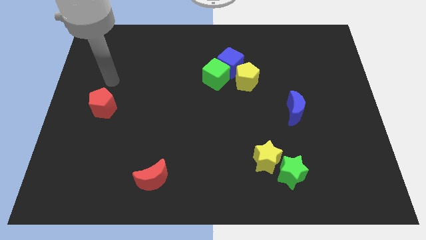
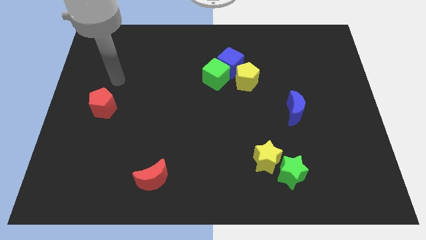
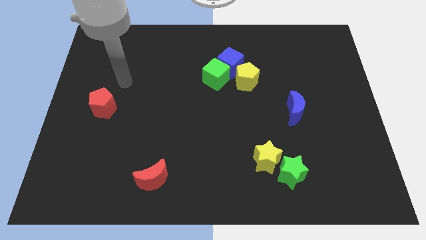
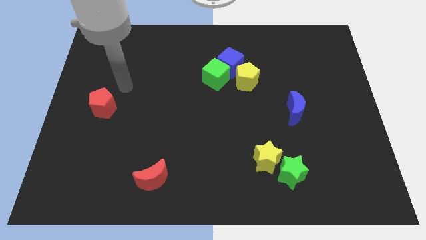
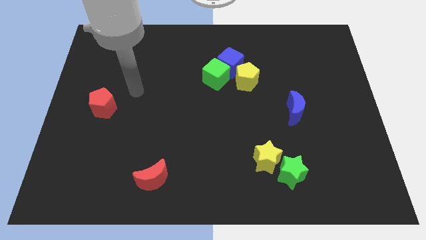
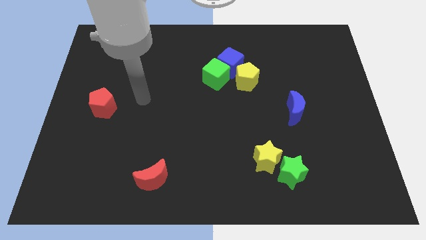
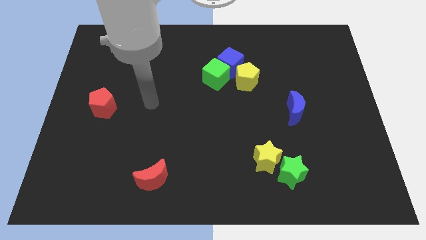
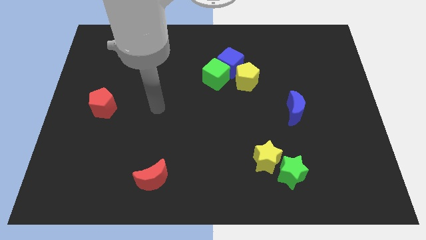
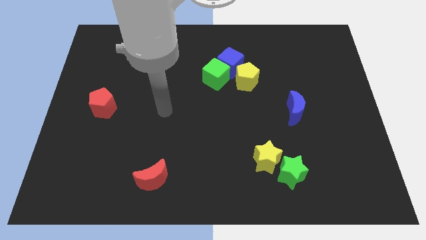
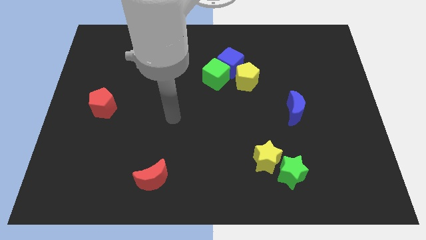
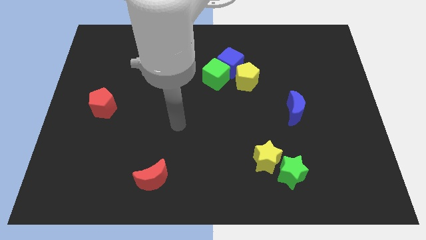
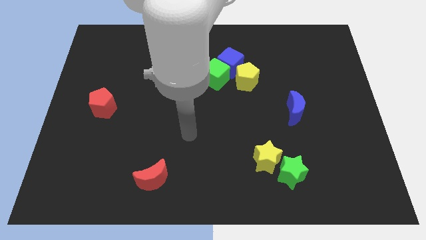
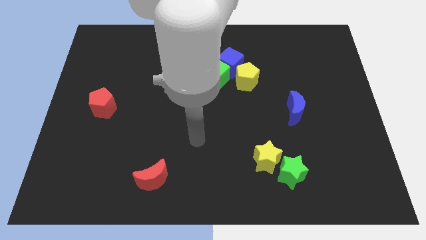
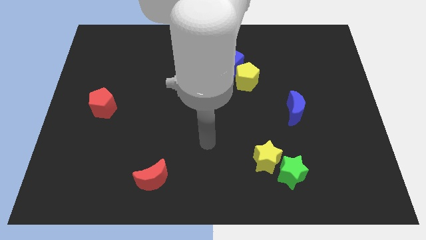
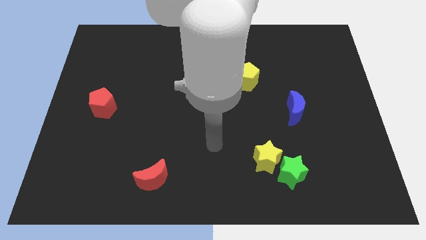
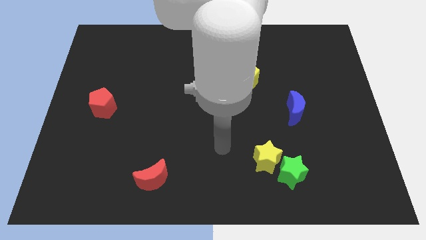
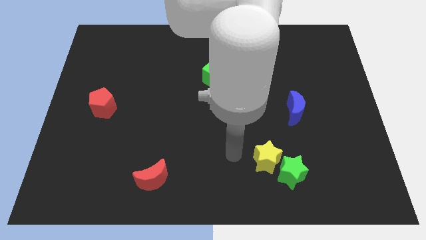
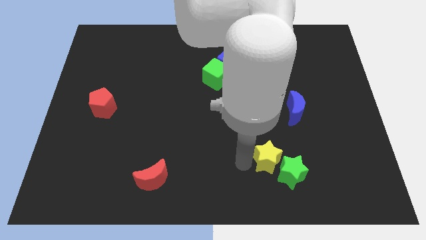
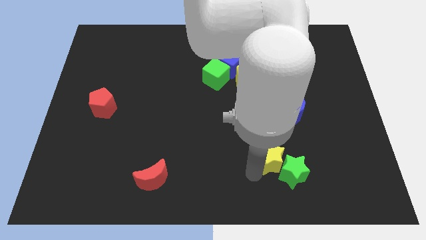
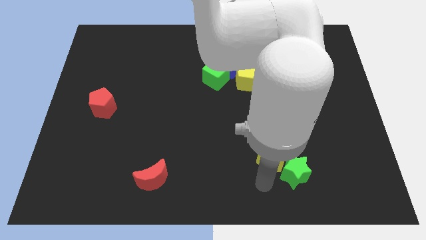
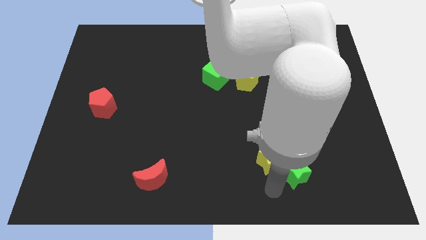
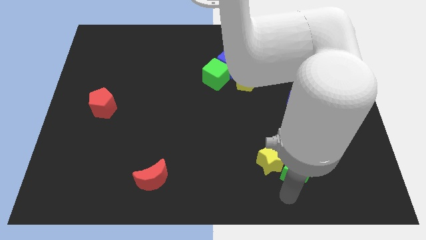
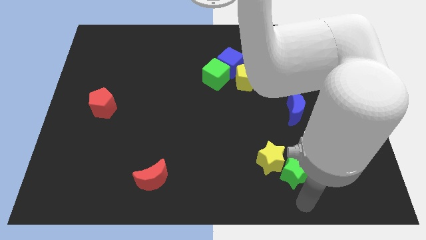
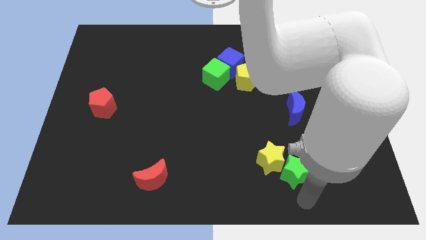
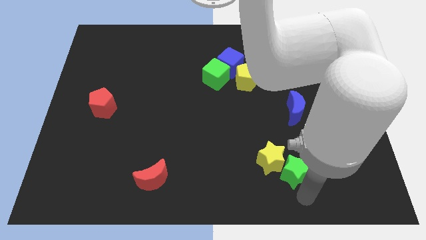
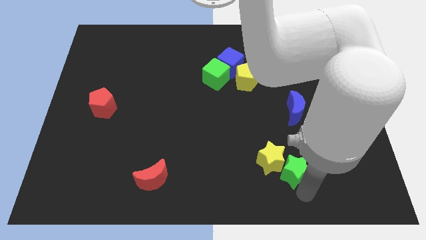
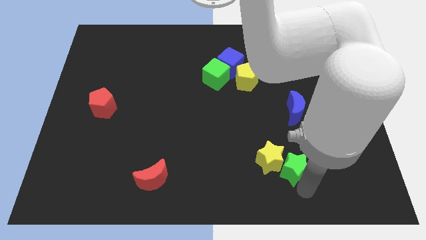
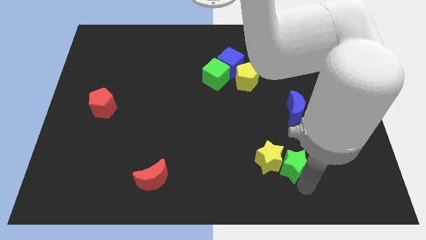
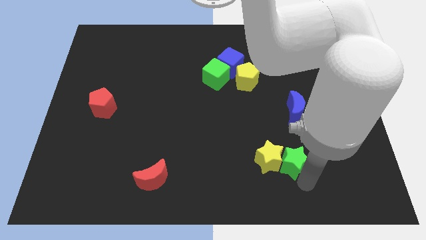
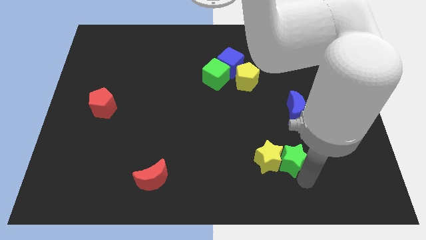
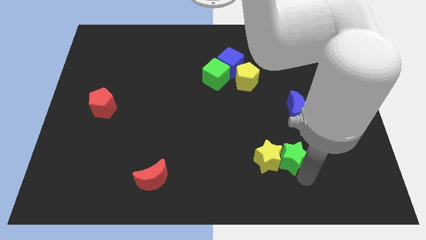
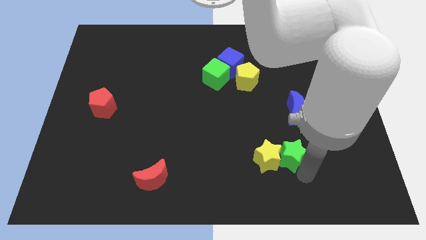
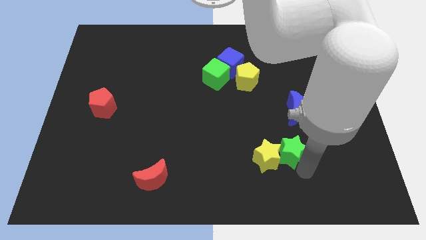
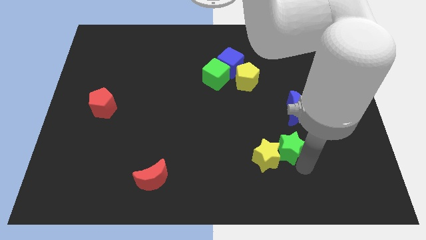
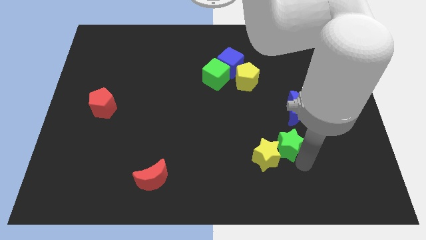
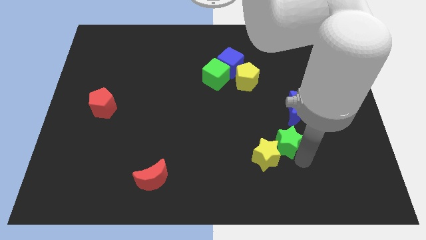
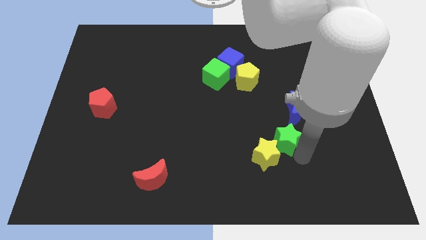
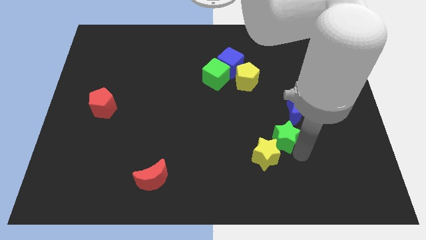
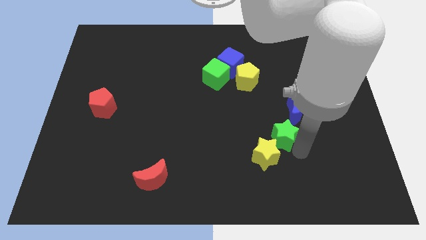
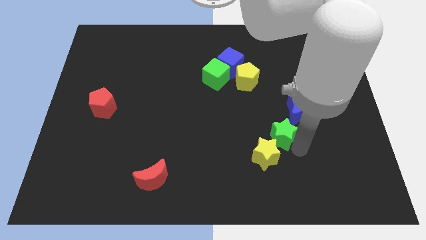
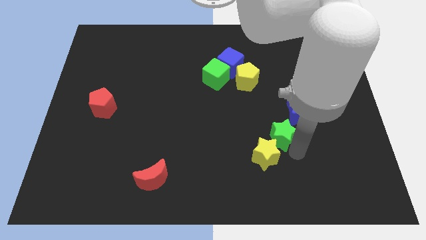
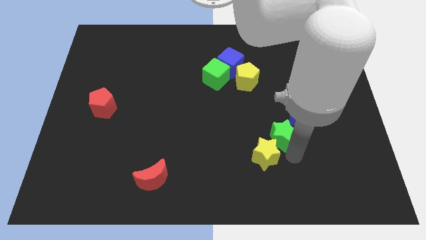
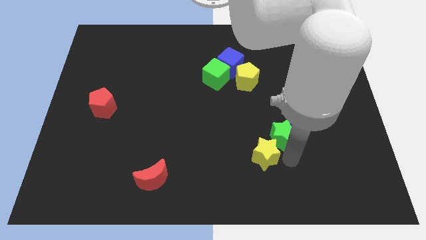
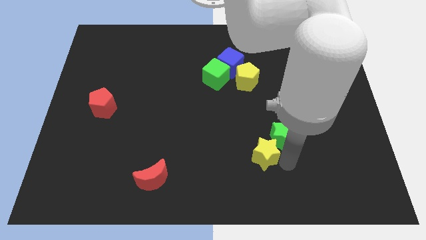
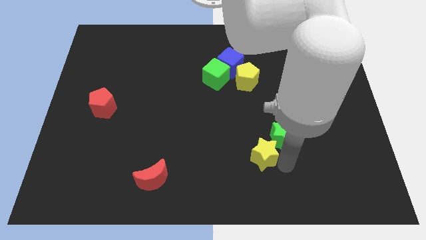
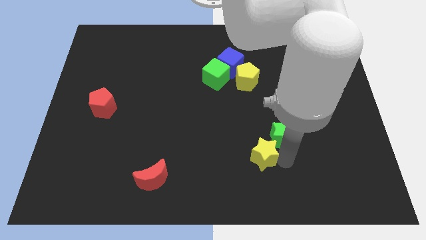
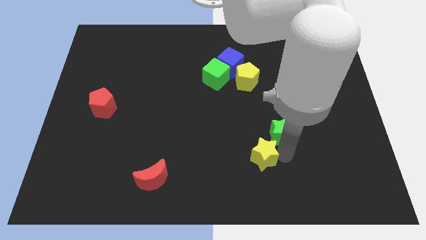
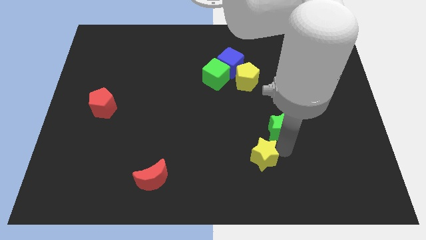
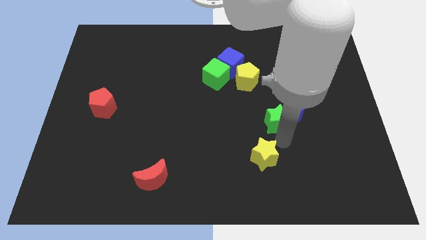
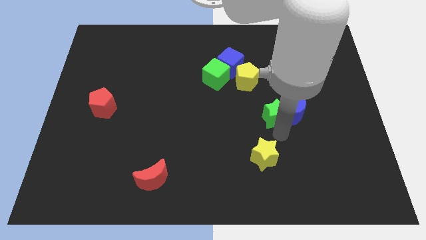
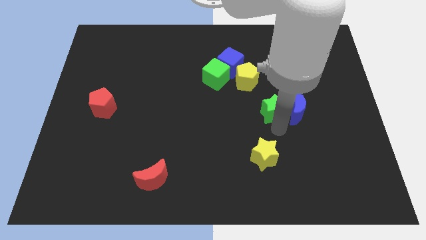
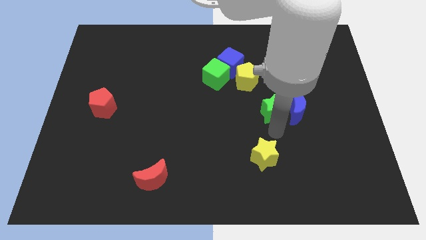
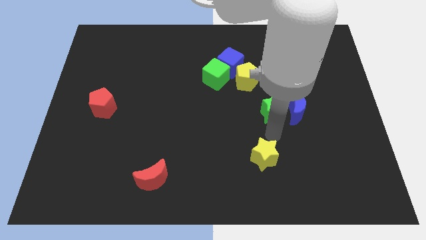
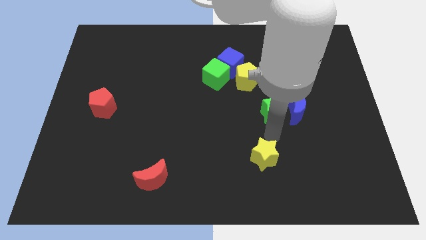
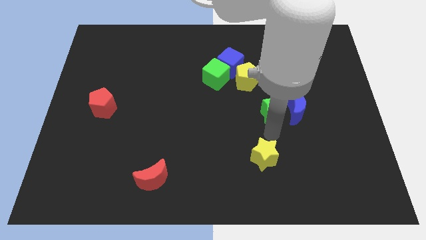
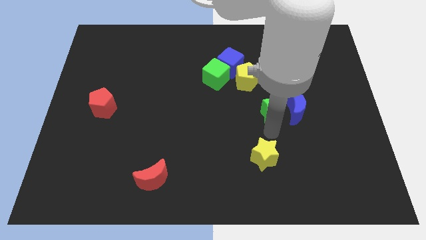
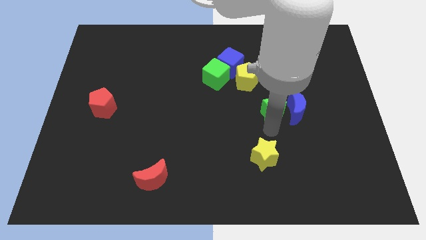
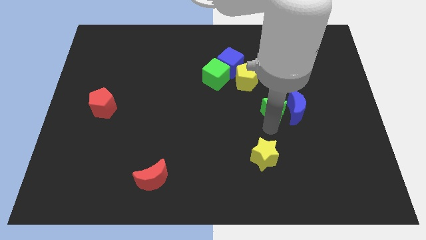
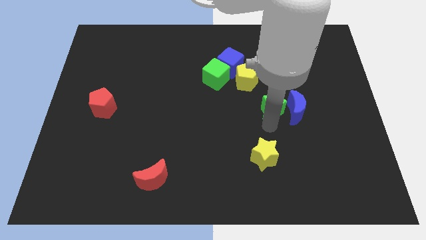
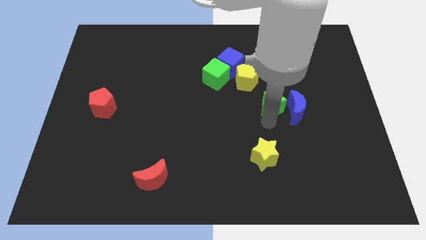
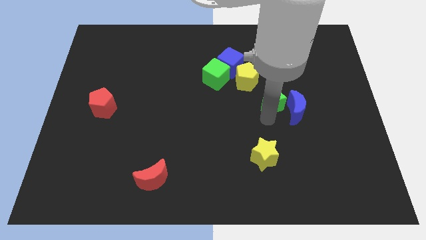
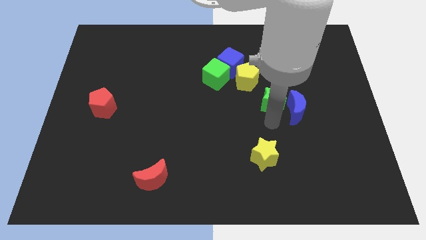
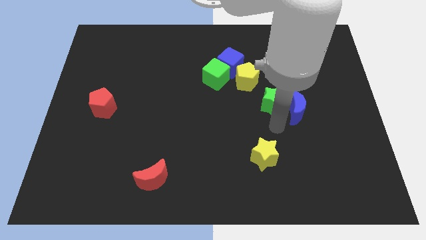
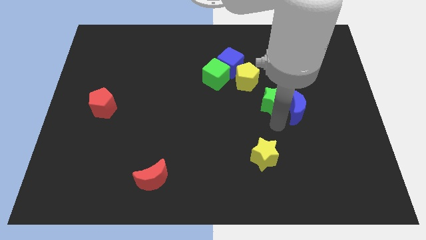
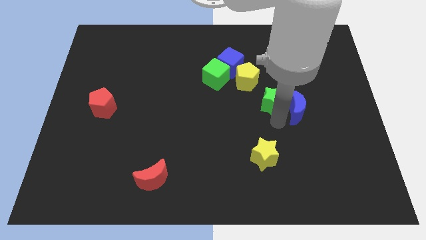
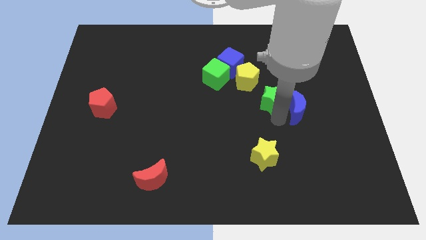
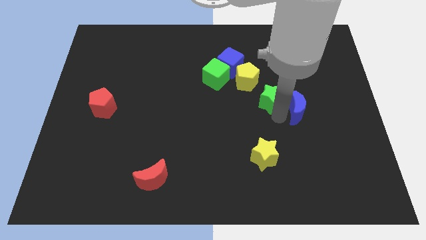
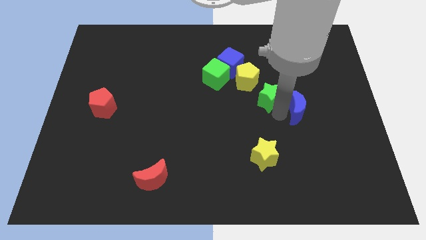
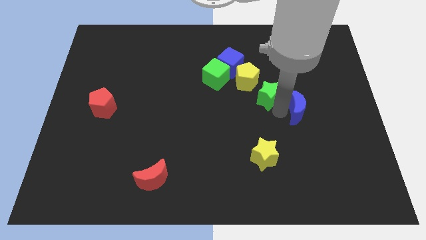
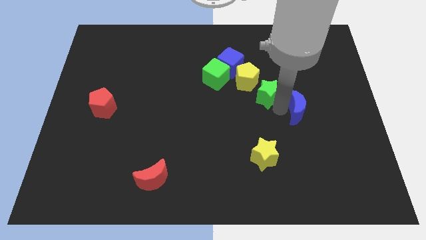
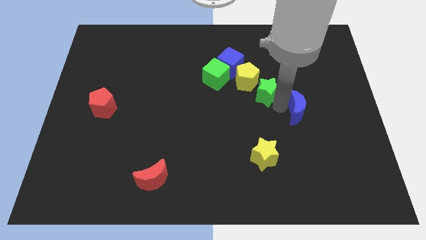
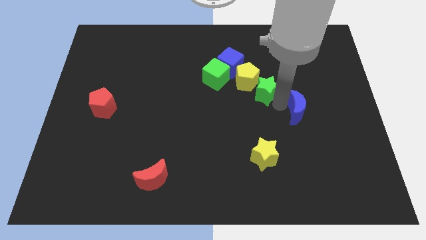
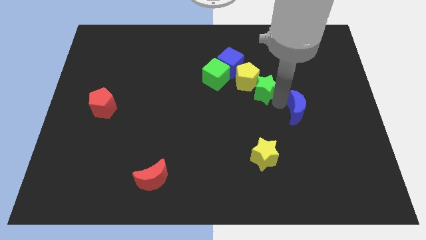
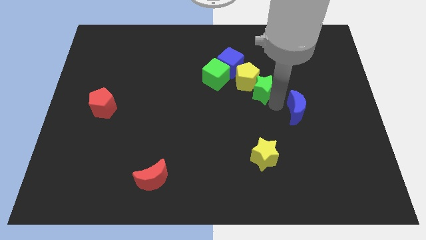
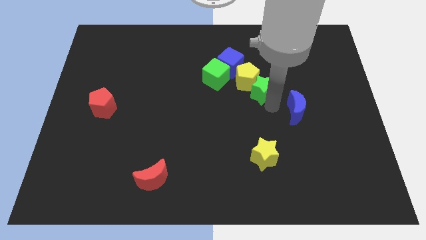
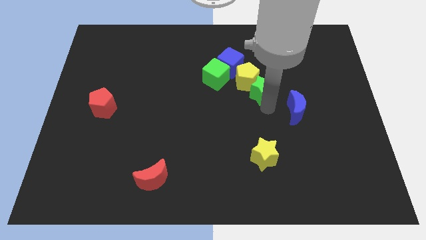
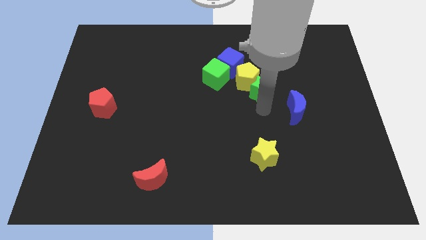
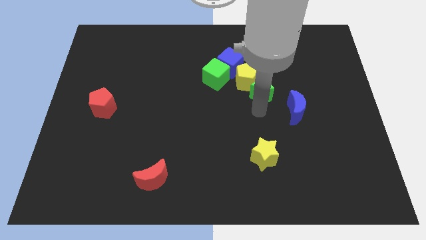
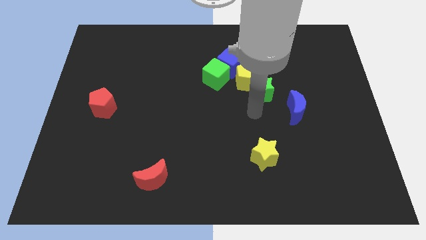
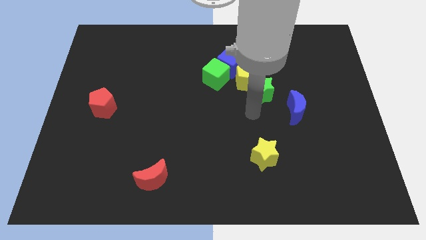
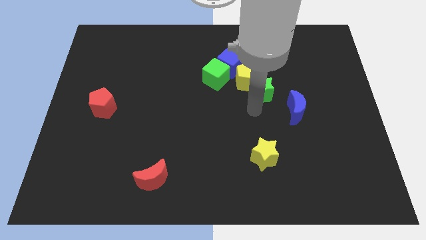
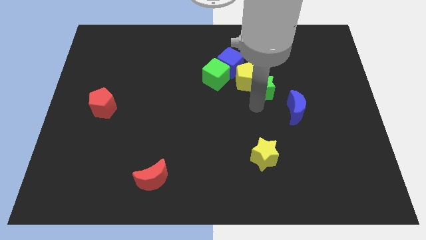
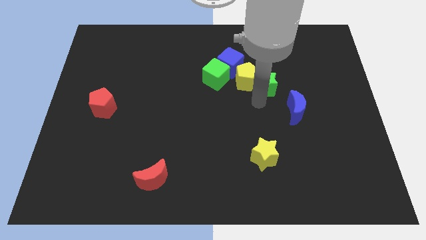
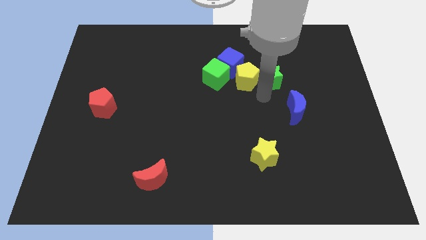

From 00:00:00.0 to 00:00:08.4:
slide the green star to the top right of the yellow pentagon
